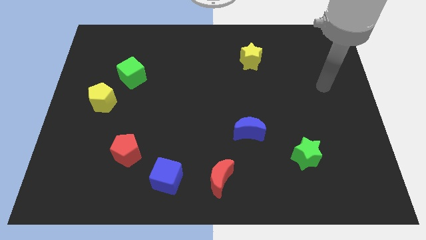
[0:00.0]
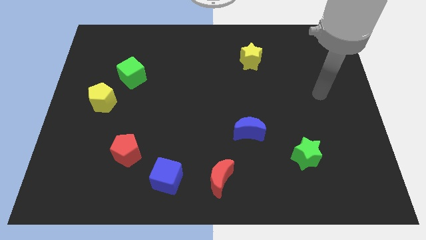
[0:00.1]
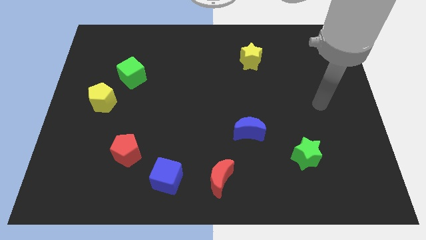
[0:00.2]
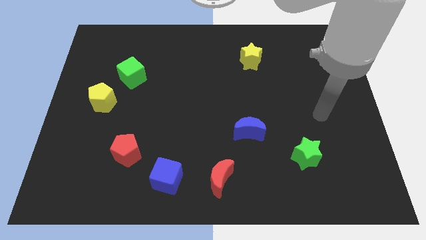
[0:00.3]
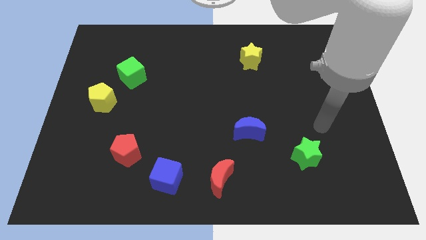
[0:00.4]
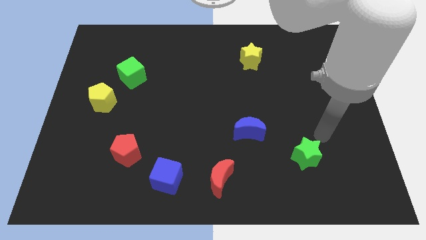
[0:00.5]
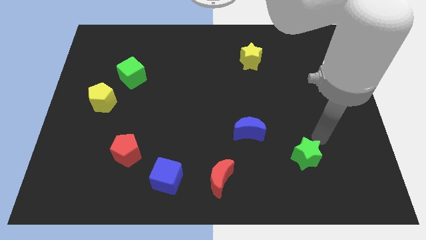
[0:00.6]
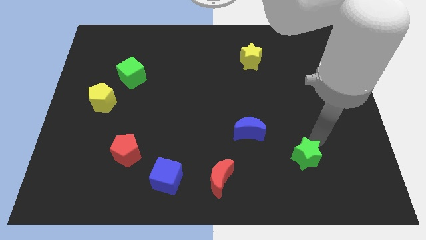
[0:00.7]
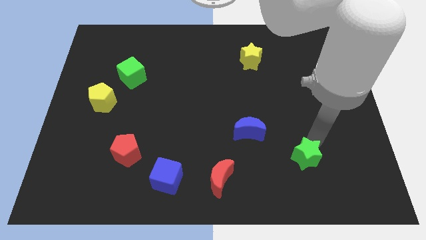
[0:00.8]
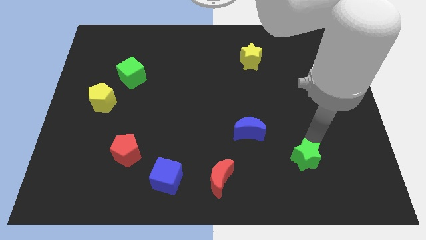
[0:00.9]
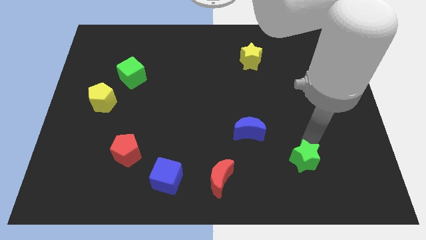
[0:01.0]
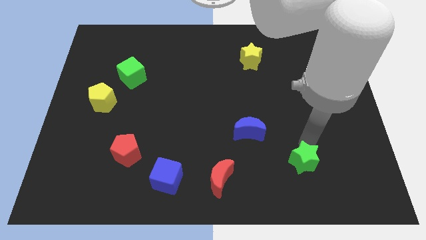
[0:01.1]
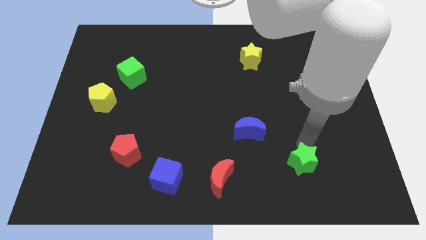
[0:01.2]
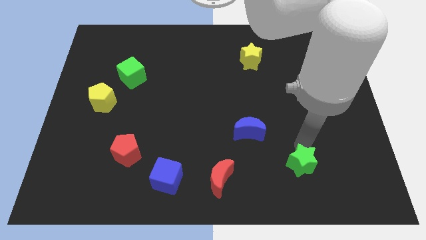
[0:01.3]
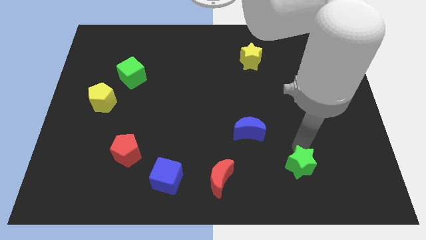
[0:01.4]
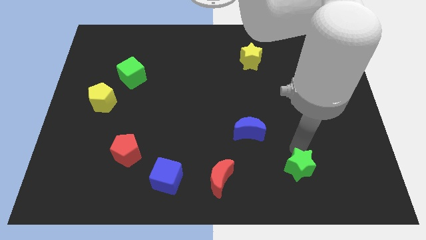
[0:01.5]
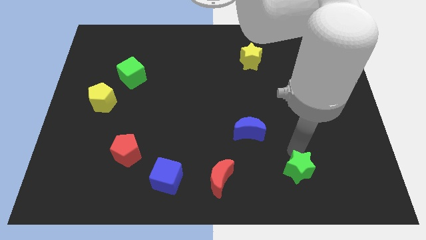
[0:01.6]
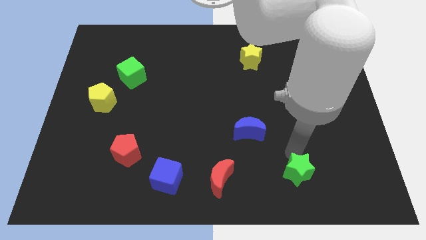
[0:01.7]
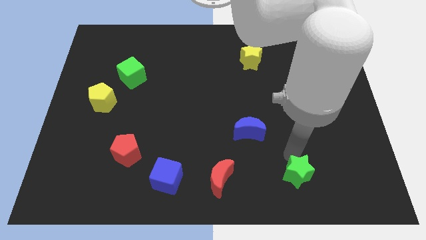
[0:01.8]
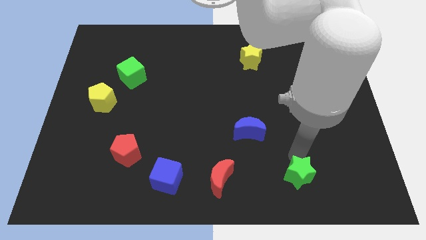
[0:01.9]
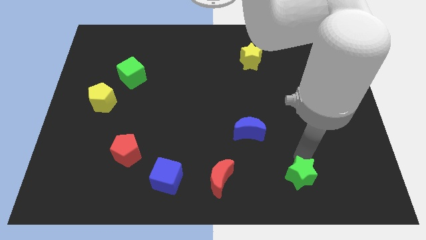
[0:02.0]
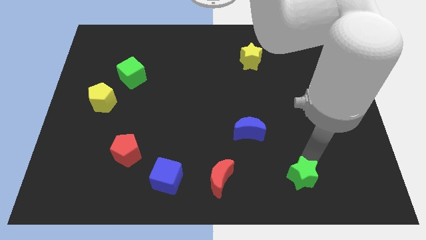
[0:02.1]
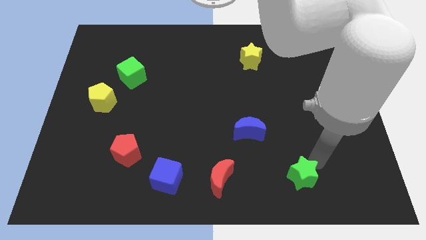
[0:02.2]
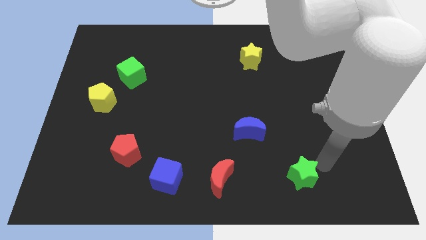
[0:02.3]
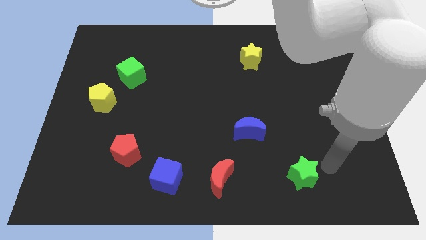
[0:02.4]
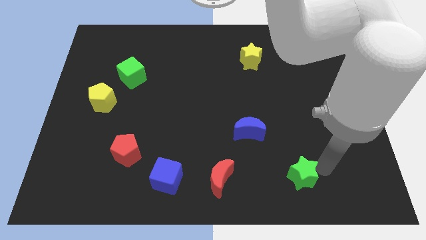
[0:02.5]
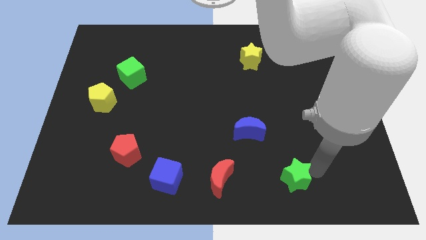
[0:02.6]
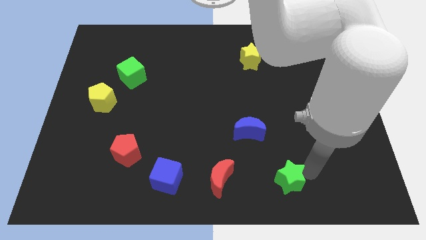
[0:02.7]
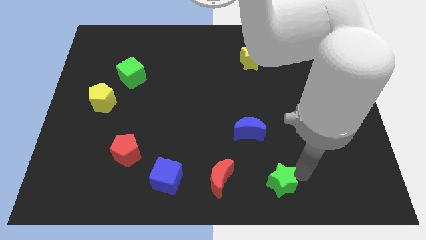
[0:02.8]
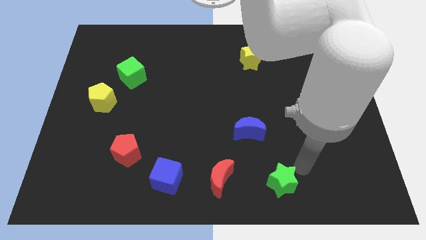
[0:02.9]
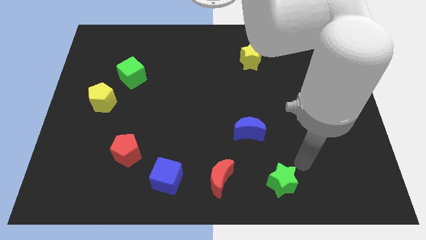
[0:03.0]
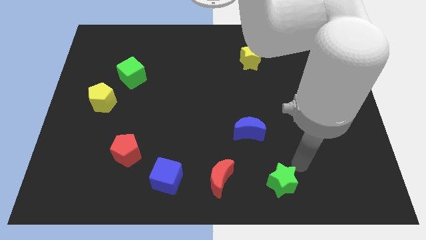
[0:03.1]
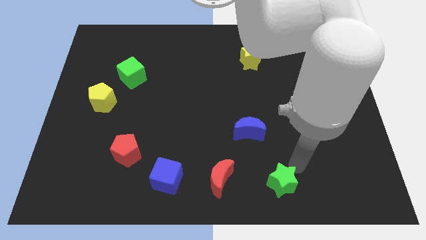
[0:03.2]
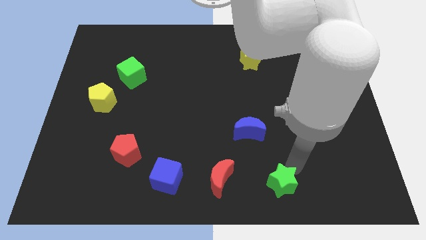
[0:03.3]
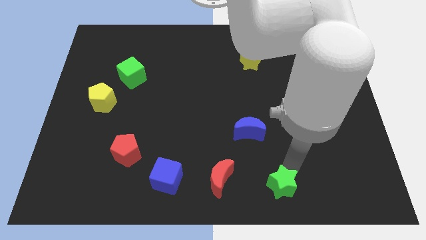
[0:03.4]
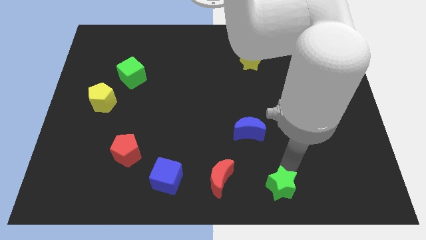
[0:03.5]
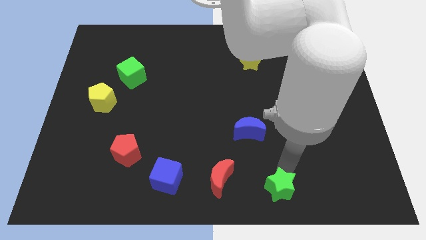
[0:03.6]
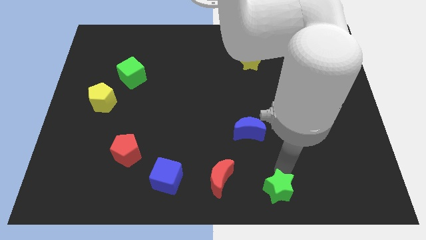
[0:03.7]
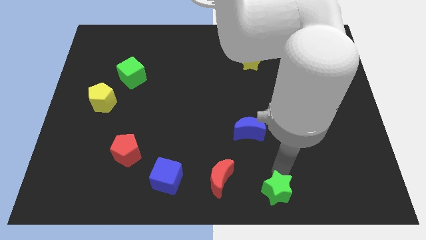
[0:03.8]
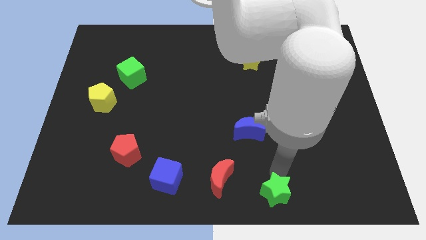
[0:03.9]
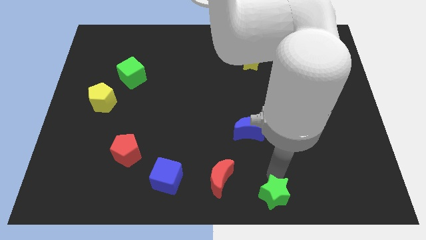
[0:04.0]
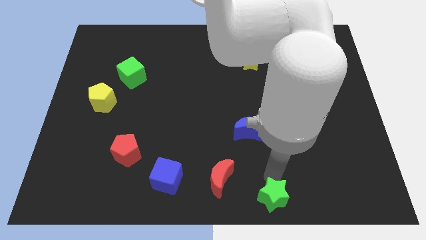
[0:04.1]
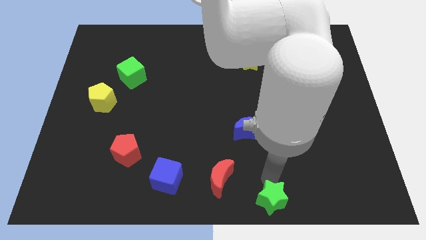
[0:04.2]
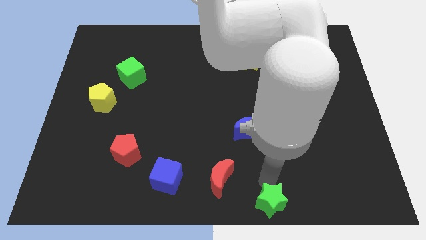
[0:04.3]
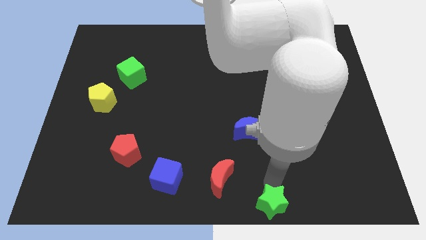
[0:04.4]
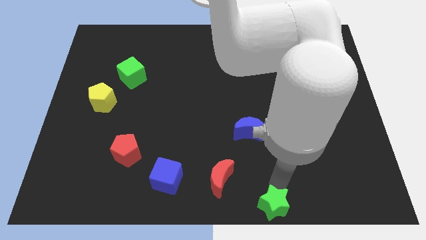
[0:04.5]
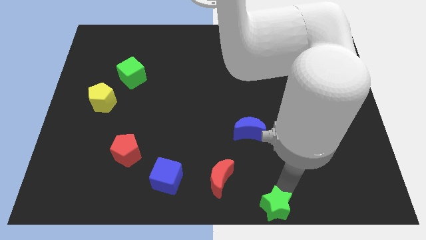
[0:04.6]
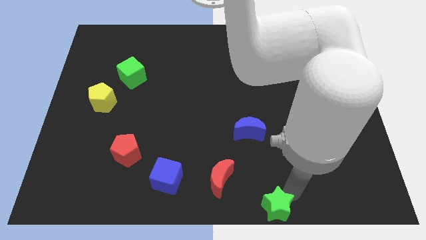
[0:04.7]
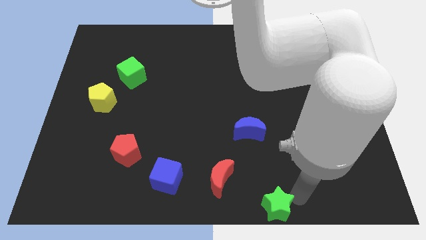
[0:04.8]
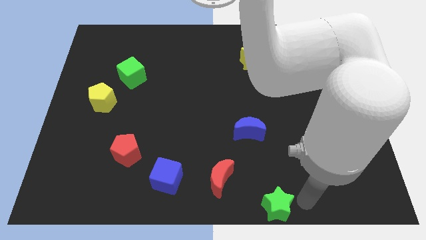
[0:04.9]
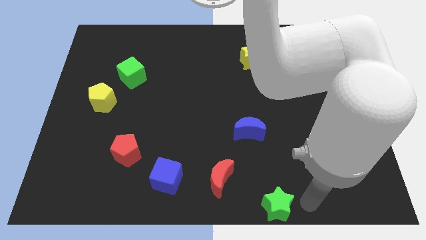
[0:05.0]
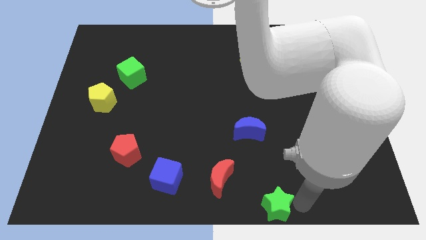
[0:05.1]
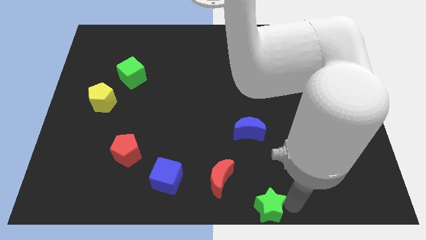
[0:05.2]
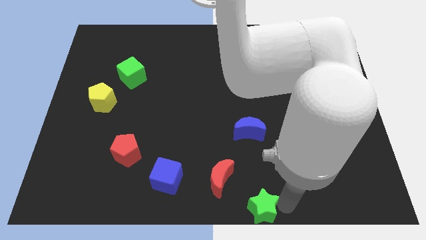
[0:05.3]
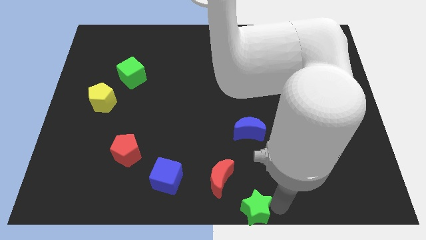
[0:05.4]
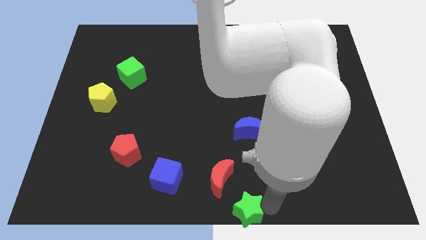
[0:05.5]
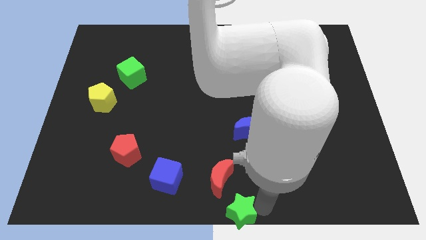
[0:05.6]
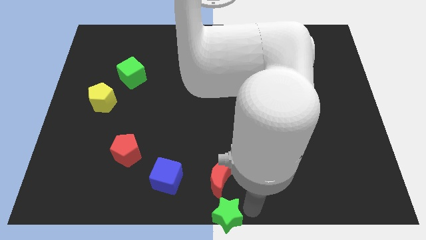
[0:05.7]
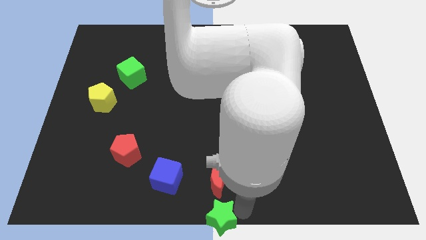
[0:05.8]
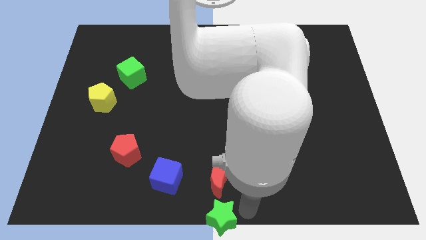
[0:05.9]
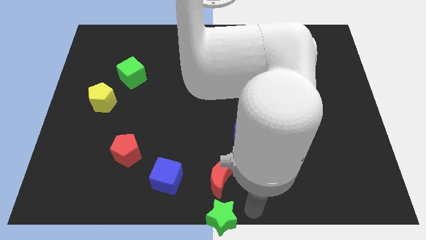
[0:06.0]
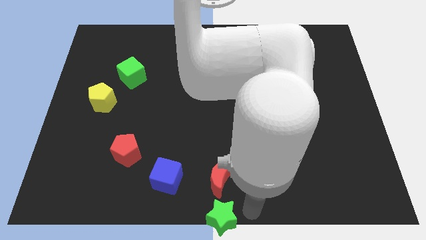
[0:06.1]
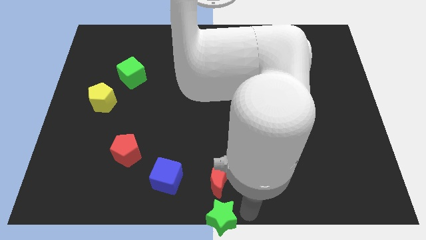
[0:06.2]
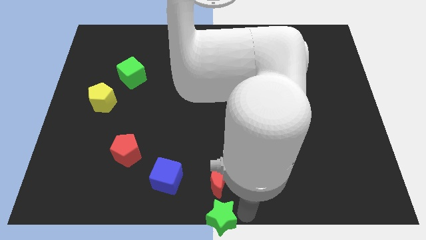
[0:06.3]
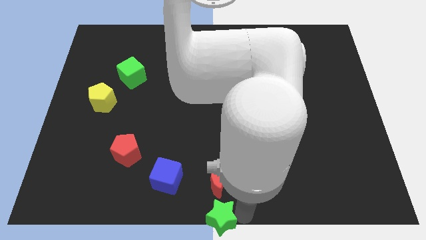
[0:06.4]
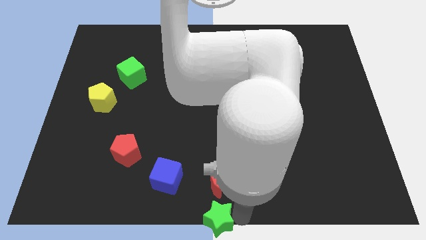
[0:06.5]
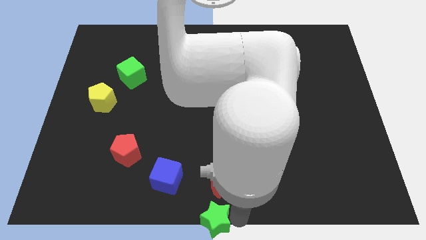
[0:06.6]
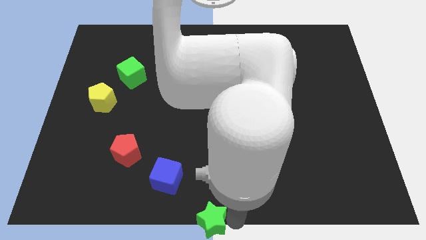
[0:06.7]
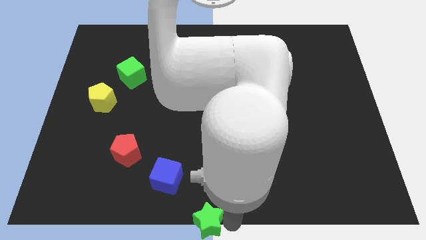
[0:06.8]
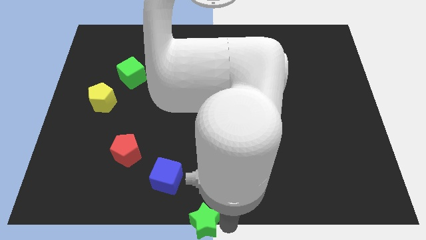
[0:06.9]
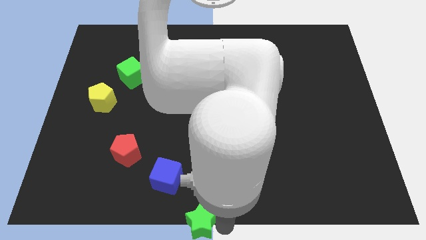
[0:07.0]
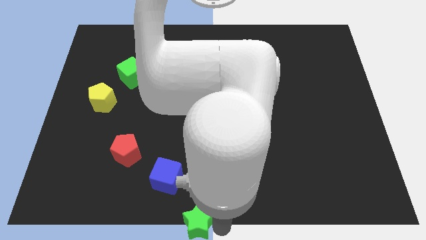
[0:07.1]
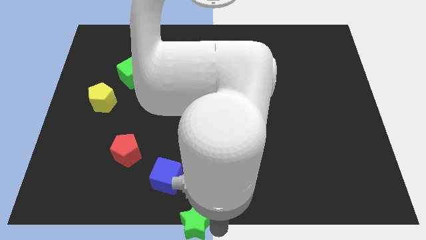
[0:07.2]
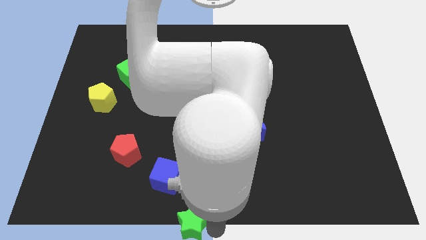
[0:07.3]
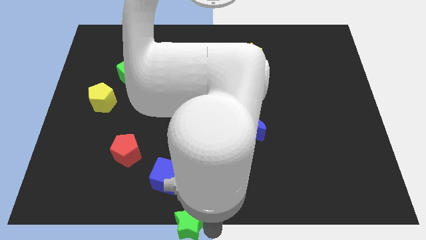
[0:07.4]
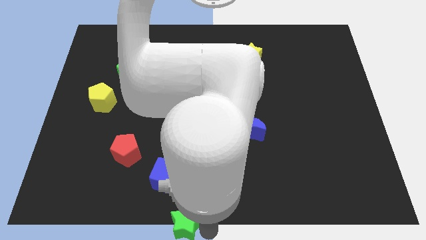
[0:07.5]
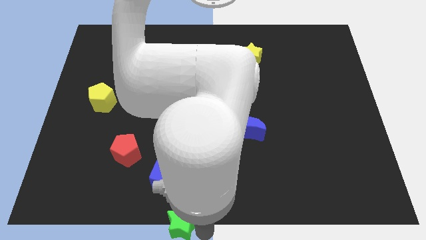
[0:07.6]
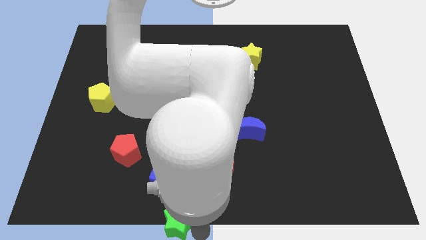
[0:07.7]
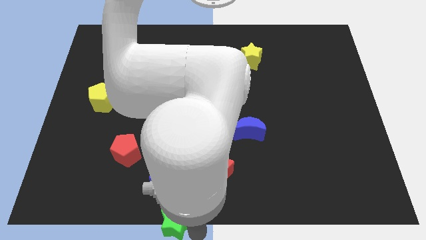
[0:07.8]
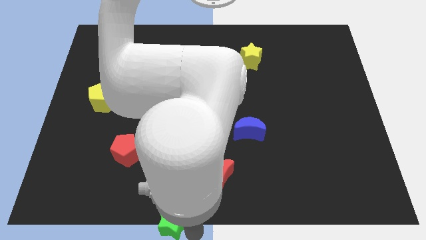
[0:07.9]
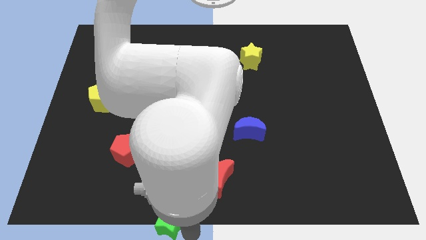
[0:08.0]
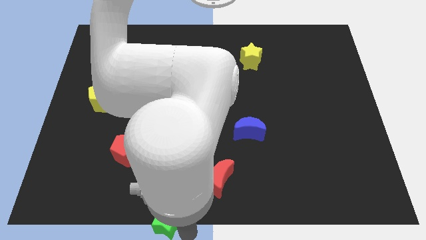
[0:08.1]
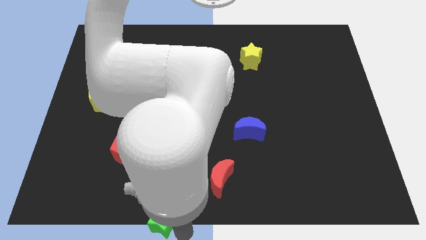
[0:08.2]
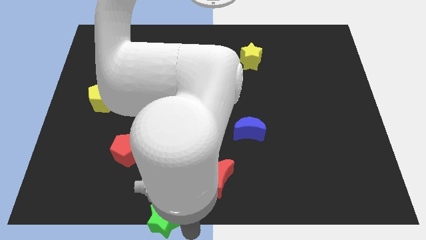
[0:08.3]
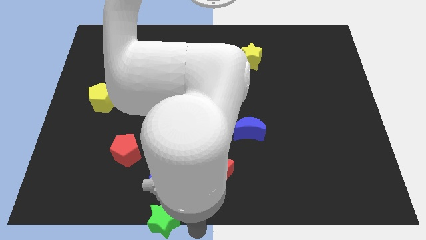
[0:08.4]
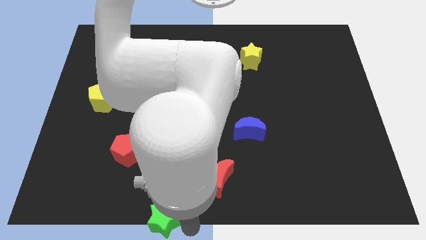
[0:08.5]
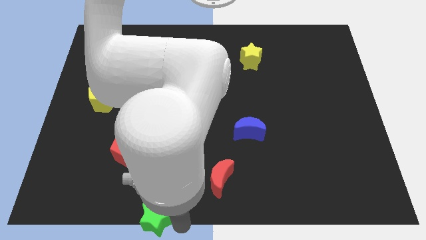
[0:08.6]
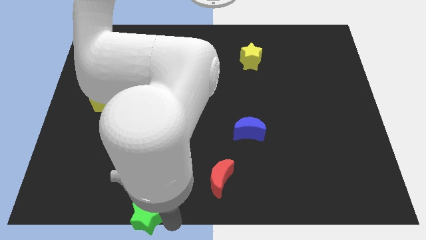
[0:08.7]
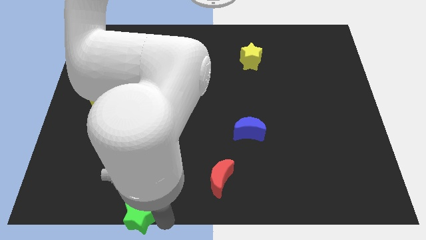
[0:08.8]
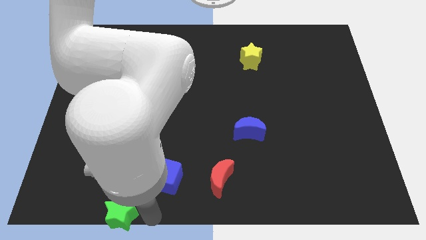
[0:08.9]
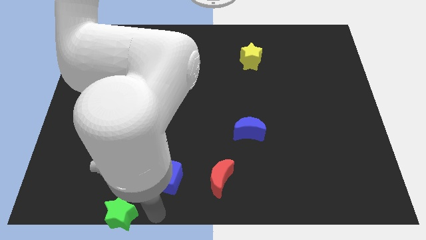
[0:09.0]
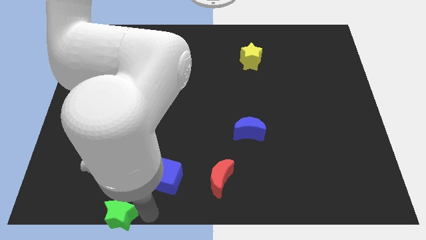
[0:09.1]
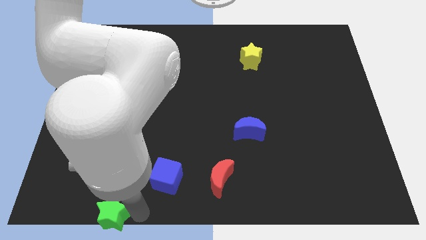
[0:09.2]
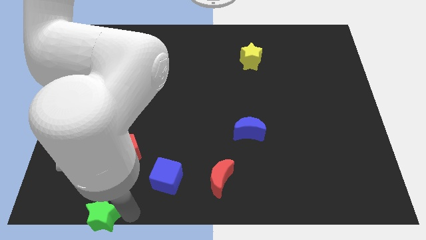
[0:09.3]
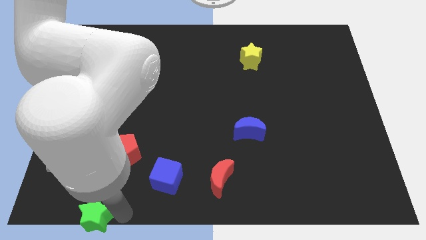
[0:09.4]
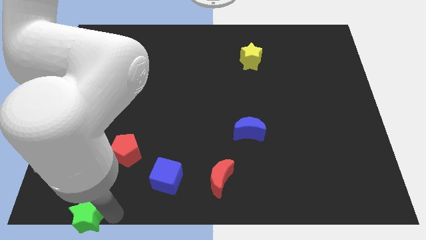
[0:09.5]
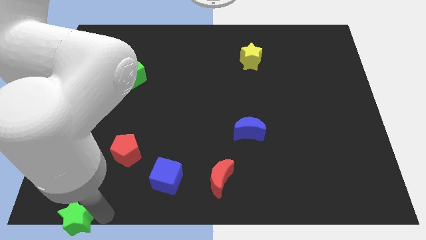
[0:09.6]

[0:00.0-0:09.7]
slide the green star to the bottom left of the board
